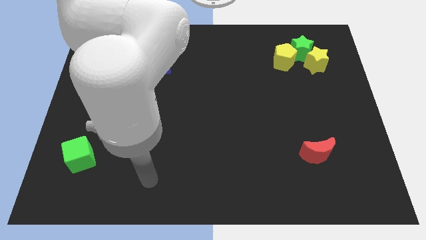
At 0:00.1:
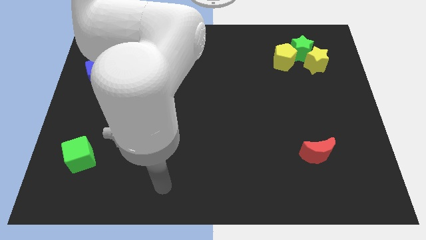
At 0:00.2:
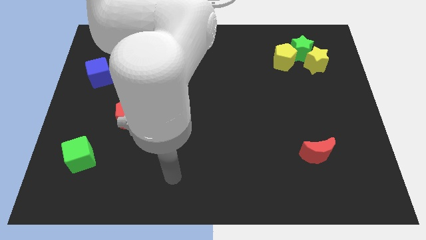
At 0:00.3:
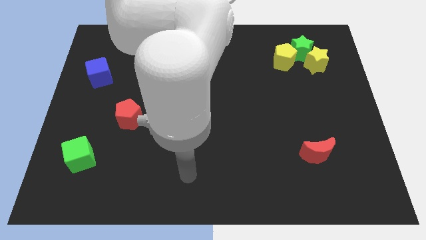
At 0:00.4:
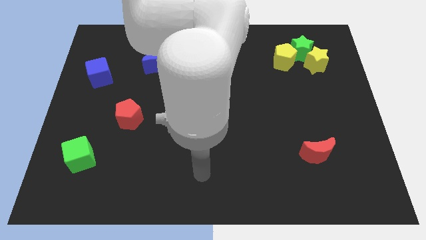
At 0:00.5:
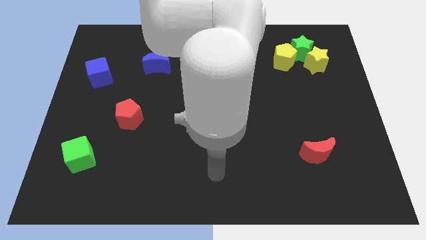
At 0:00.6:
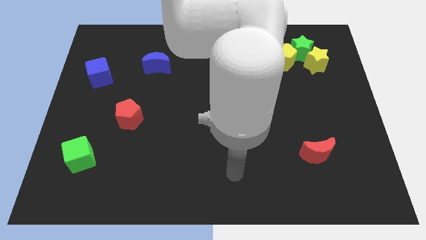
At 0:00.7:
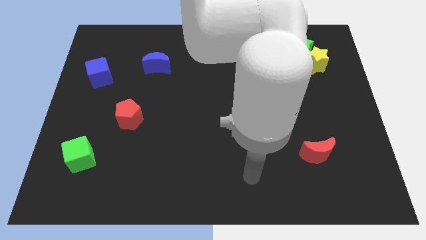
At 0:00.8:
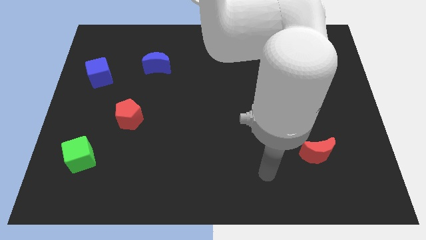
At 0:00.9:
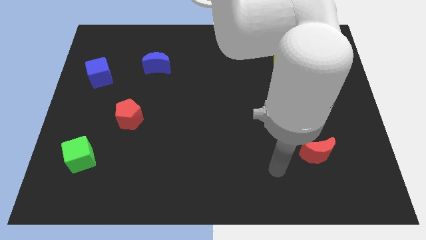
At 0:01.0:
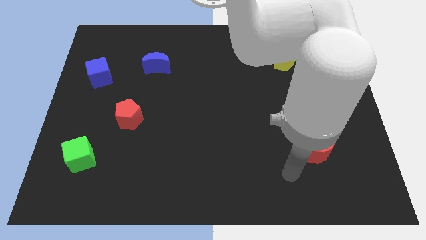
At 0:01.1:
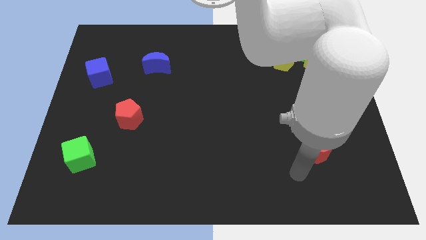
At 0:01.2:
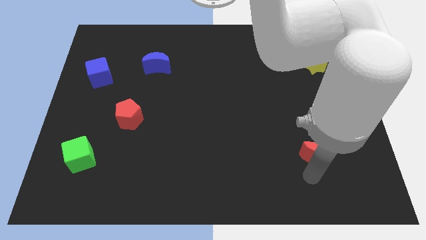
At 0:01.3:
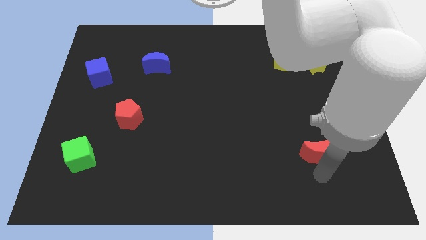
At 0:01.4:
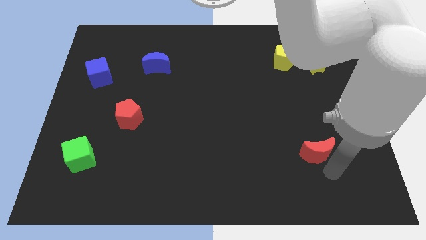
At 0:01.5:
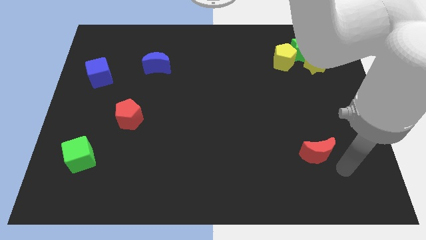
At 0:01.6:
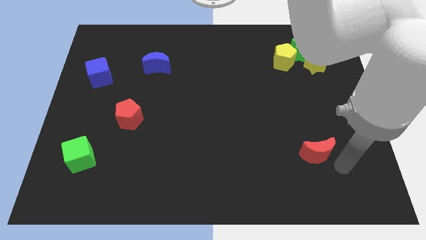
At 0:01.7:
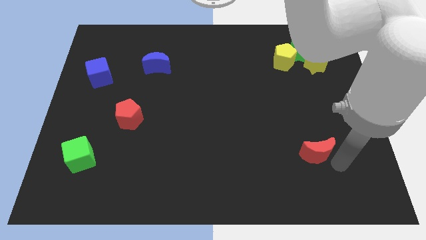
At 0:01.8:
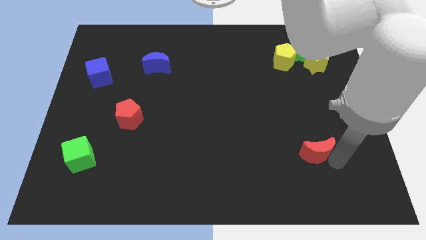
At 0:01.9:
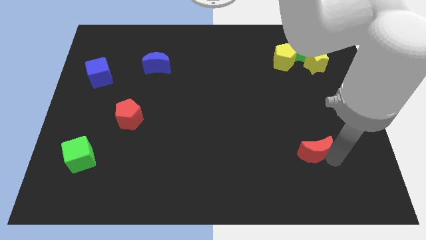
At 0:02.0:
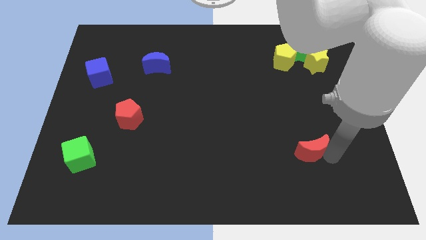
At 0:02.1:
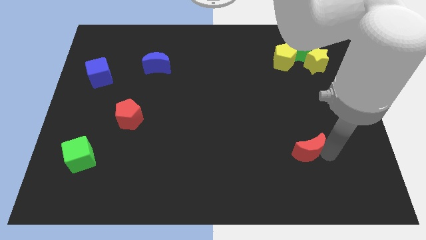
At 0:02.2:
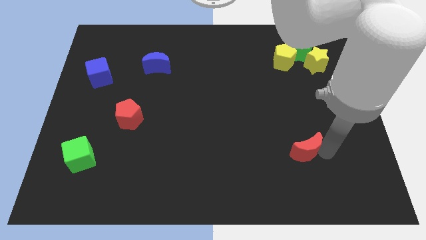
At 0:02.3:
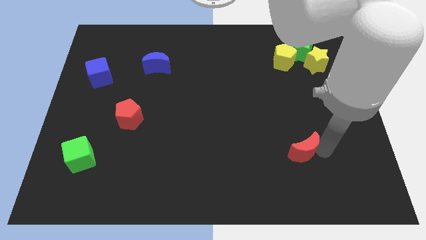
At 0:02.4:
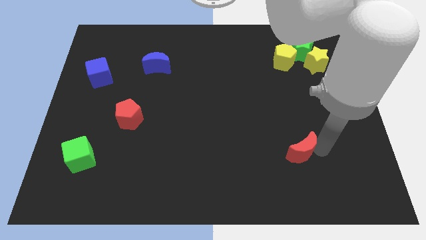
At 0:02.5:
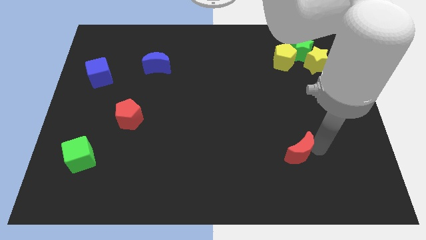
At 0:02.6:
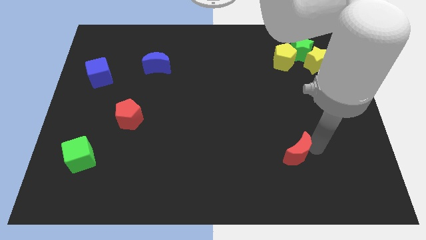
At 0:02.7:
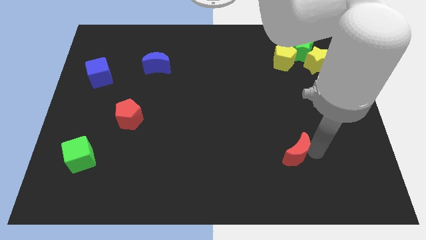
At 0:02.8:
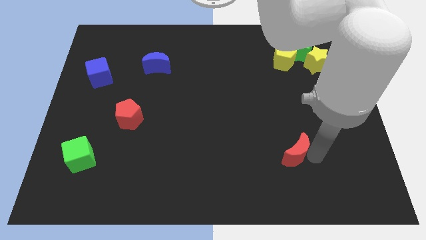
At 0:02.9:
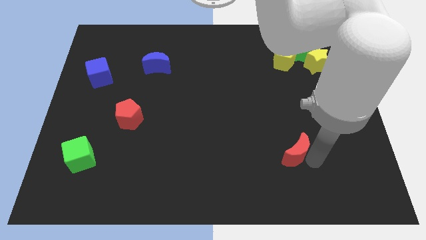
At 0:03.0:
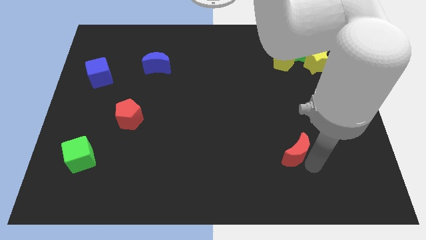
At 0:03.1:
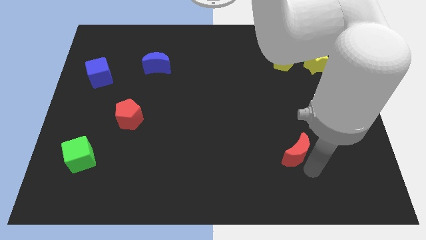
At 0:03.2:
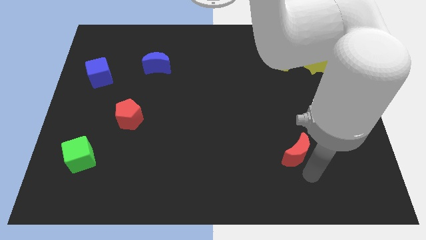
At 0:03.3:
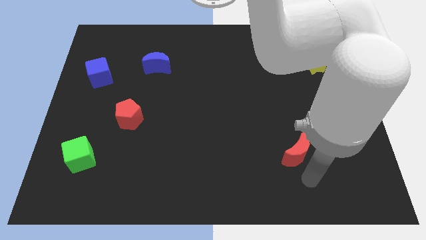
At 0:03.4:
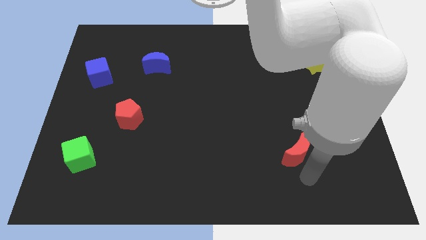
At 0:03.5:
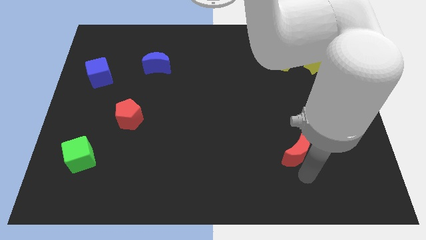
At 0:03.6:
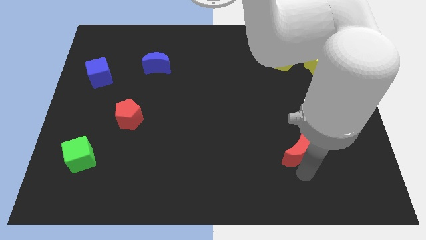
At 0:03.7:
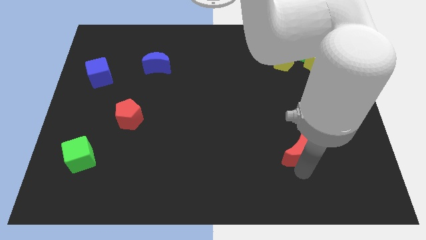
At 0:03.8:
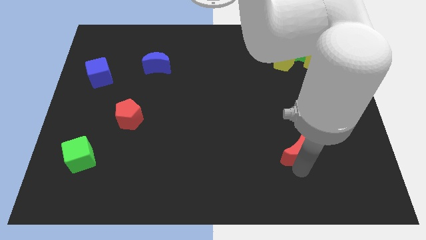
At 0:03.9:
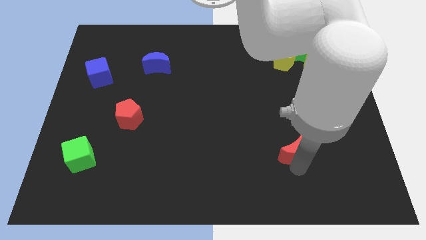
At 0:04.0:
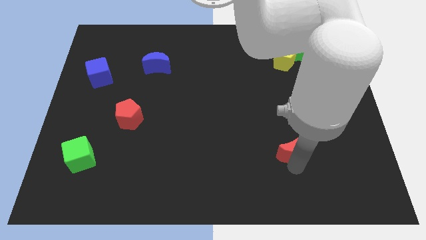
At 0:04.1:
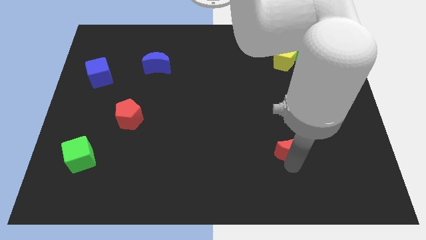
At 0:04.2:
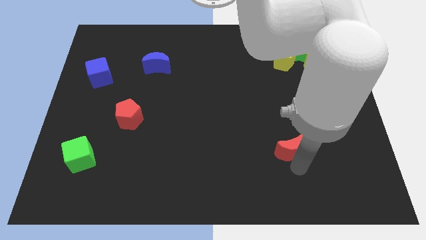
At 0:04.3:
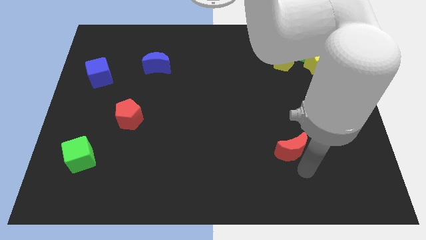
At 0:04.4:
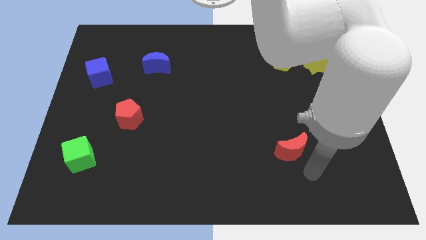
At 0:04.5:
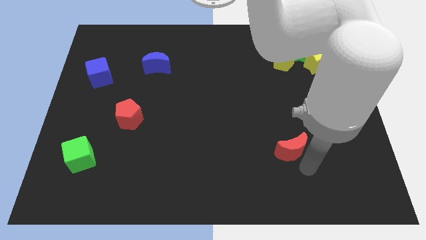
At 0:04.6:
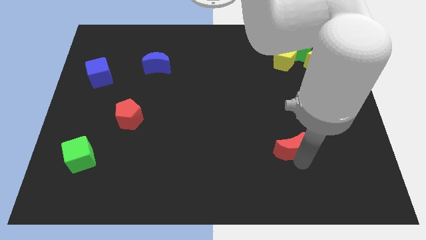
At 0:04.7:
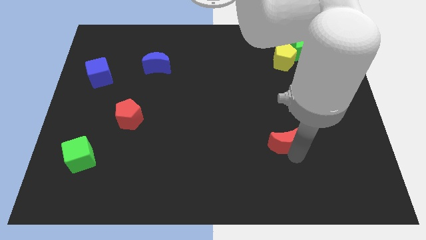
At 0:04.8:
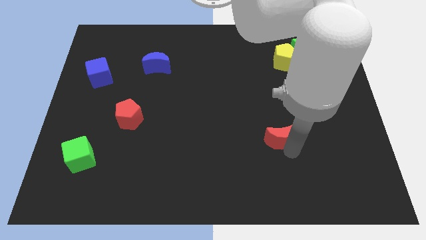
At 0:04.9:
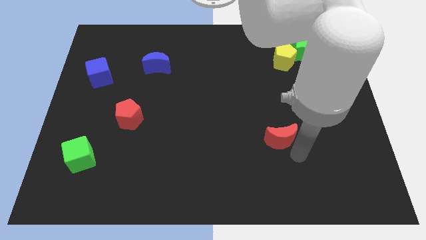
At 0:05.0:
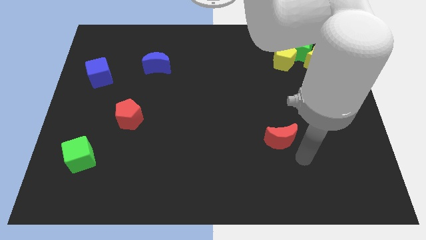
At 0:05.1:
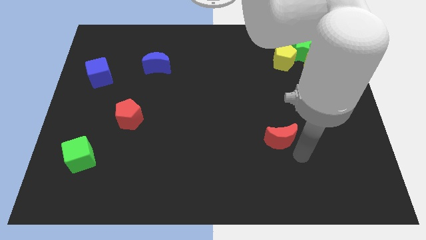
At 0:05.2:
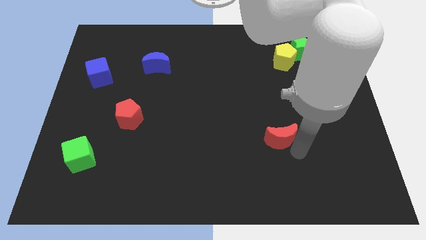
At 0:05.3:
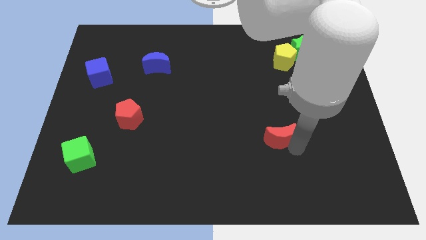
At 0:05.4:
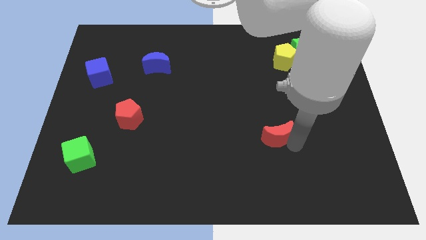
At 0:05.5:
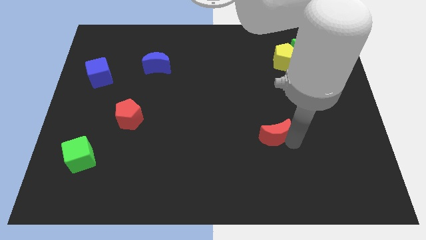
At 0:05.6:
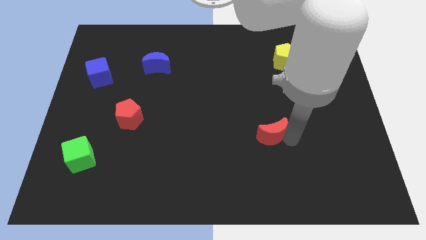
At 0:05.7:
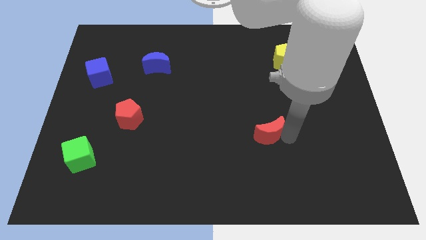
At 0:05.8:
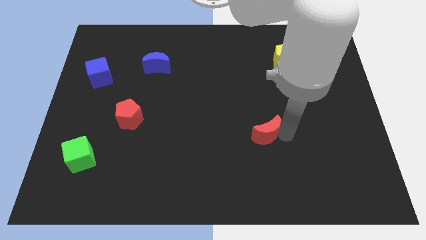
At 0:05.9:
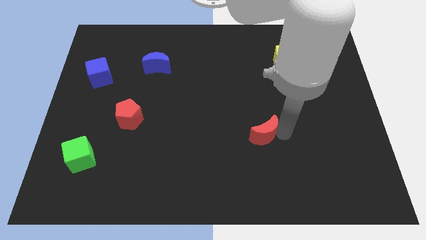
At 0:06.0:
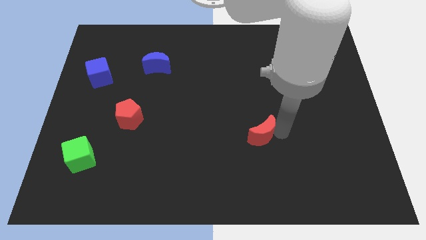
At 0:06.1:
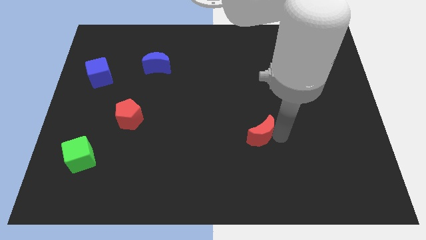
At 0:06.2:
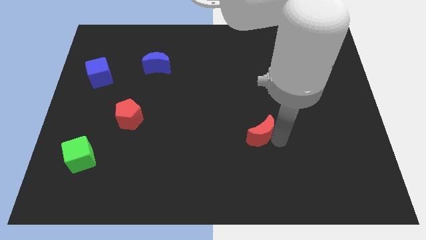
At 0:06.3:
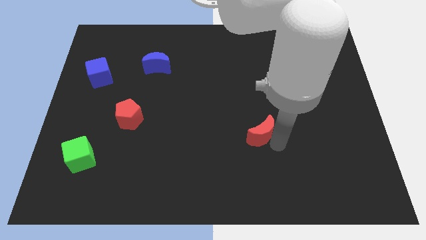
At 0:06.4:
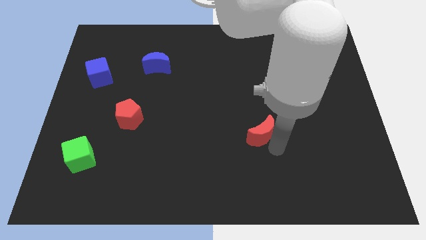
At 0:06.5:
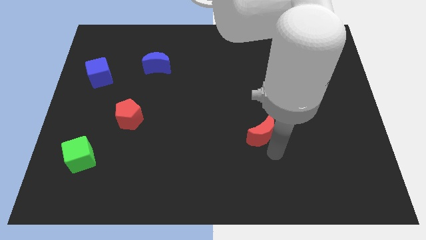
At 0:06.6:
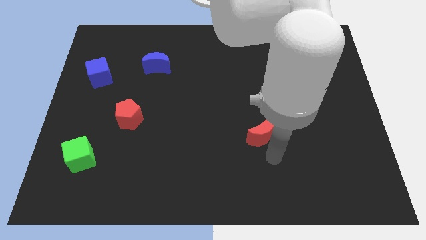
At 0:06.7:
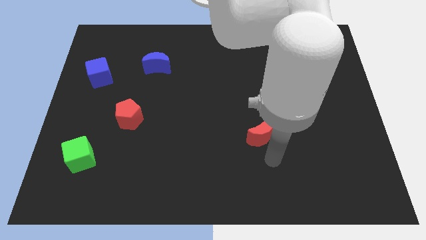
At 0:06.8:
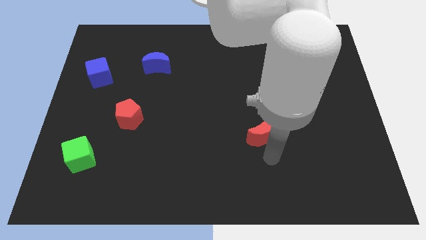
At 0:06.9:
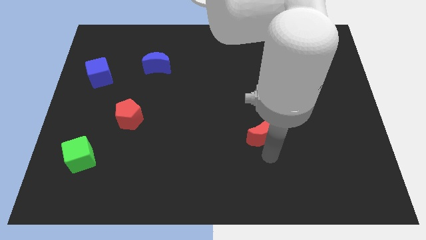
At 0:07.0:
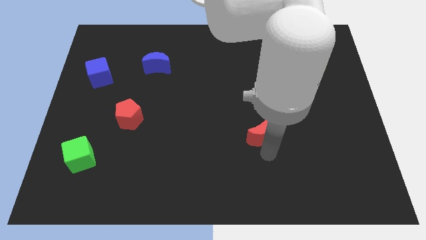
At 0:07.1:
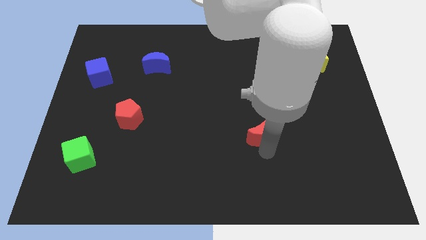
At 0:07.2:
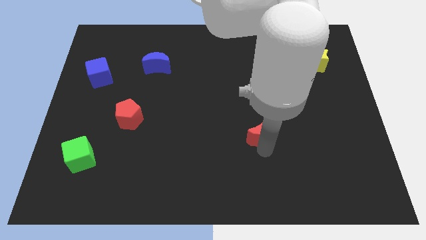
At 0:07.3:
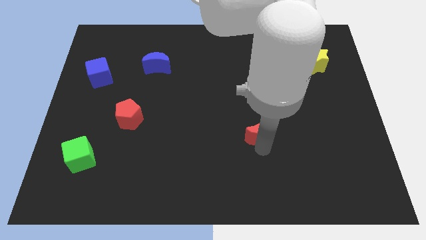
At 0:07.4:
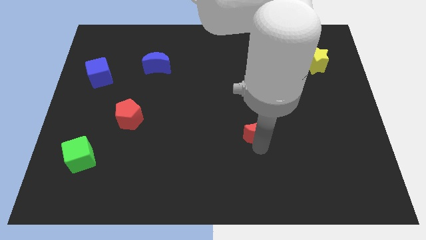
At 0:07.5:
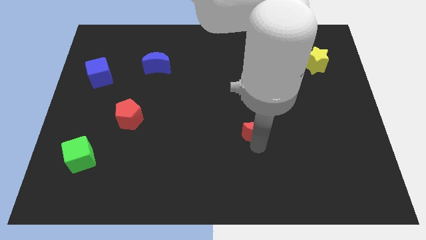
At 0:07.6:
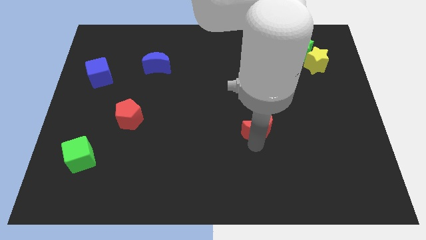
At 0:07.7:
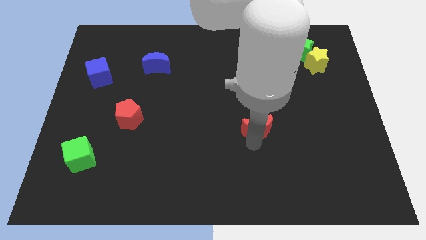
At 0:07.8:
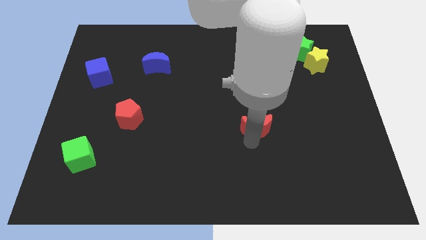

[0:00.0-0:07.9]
put the red moon to the center of the board
